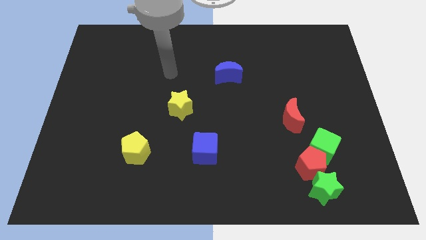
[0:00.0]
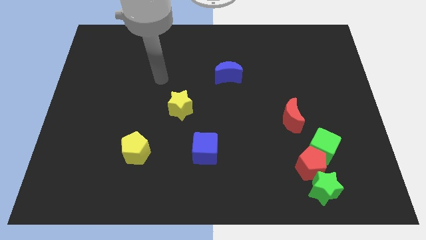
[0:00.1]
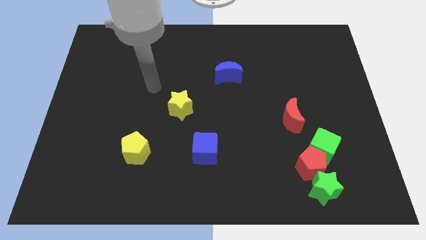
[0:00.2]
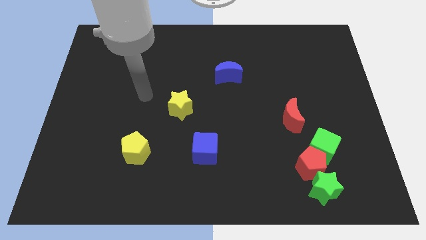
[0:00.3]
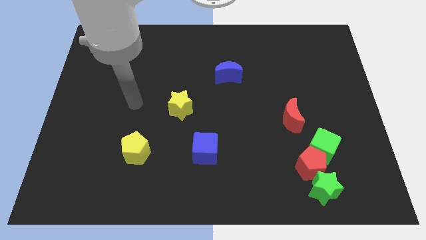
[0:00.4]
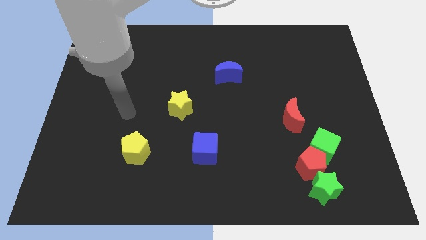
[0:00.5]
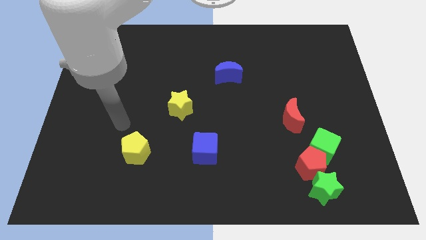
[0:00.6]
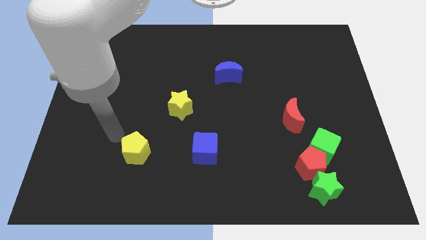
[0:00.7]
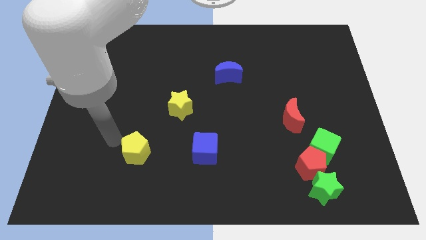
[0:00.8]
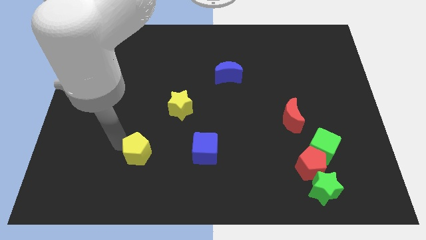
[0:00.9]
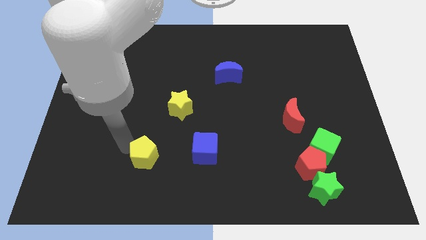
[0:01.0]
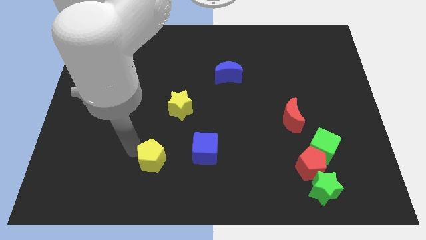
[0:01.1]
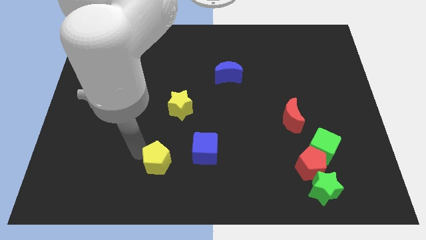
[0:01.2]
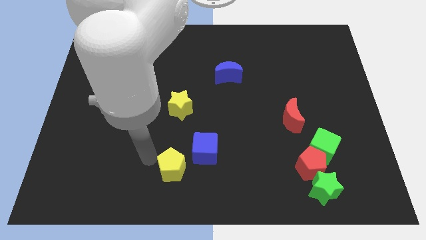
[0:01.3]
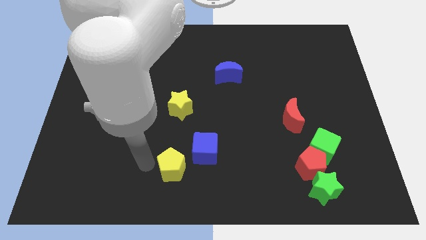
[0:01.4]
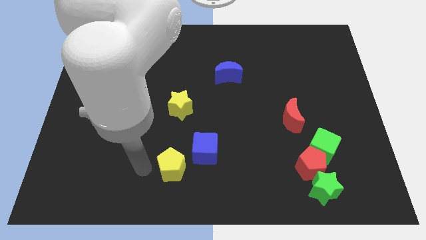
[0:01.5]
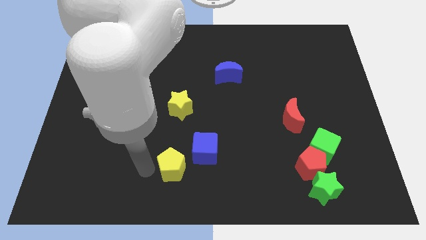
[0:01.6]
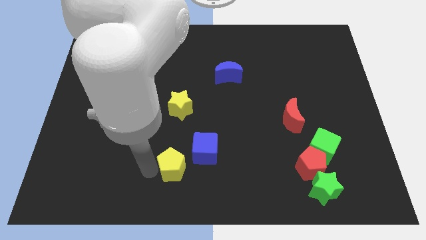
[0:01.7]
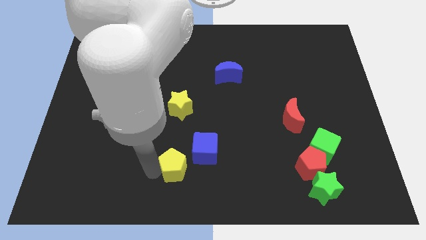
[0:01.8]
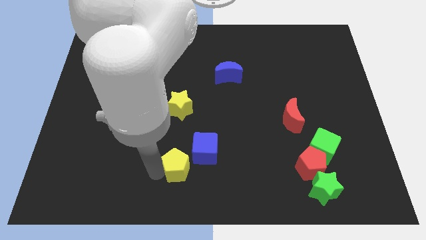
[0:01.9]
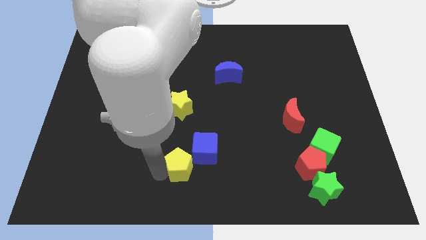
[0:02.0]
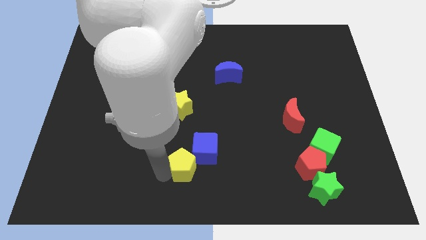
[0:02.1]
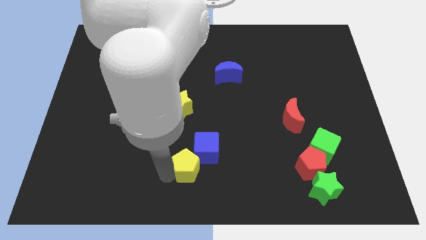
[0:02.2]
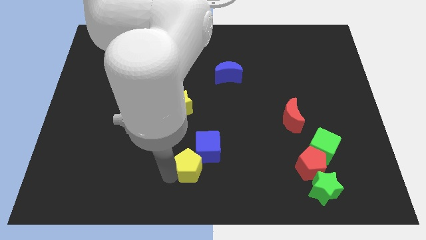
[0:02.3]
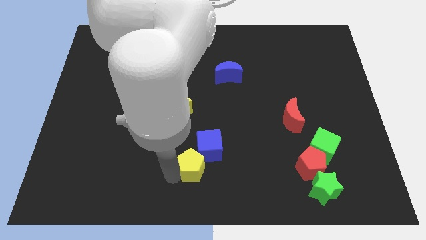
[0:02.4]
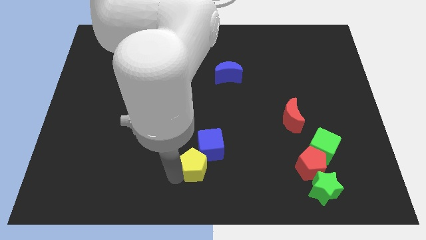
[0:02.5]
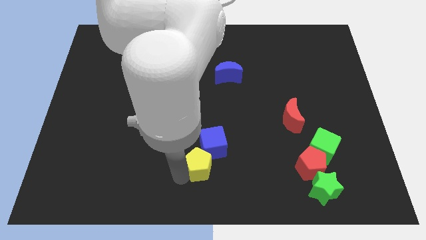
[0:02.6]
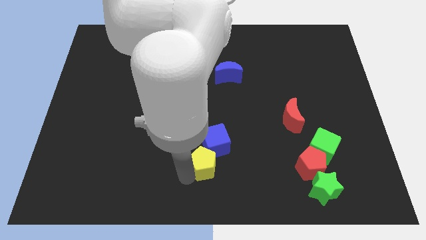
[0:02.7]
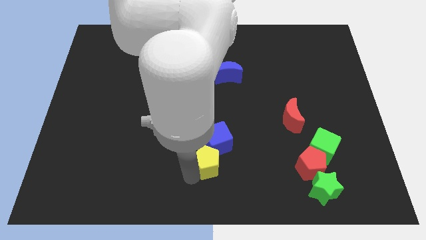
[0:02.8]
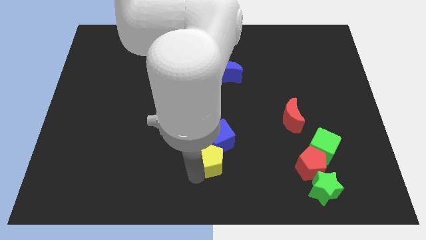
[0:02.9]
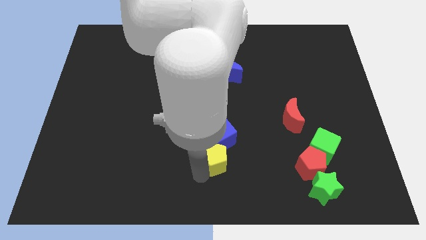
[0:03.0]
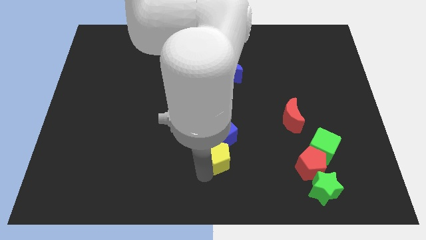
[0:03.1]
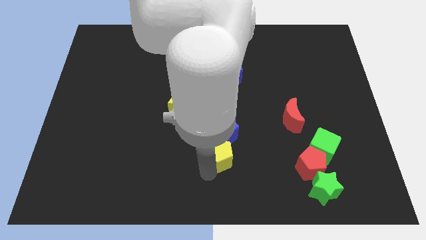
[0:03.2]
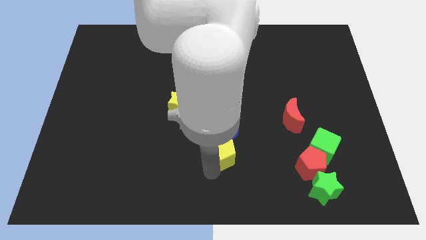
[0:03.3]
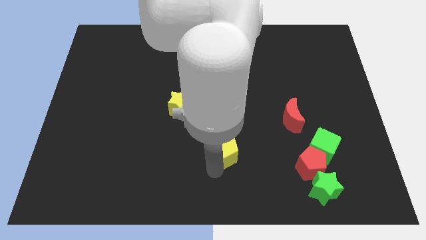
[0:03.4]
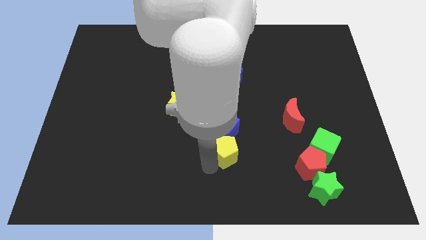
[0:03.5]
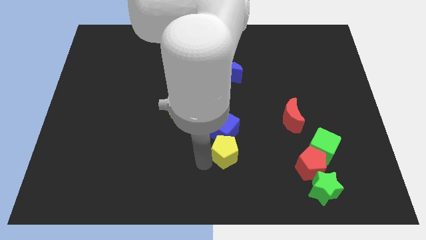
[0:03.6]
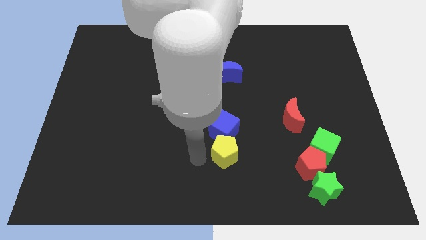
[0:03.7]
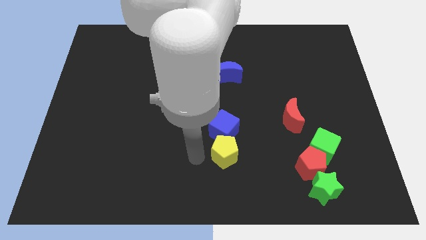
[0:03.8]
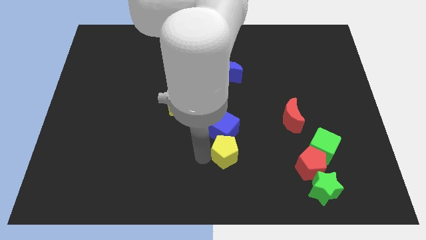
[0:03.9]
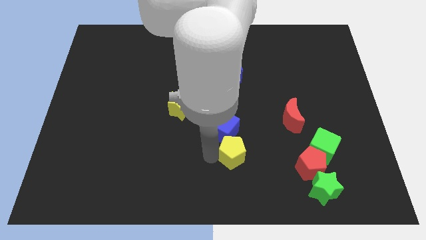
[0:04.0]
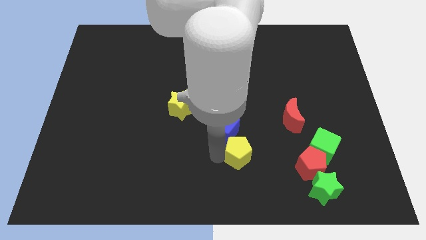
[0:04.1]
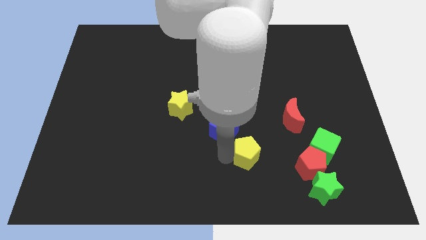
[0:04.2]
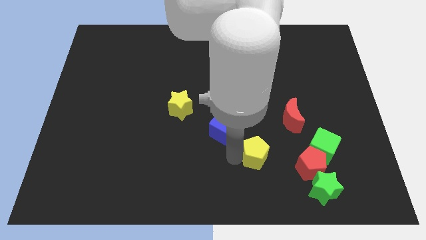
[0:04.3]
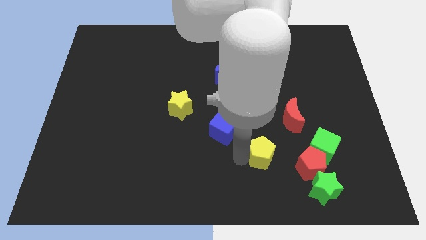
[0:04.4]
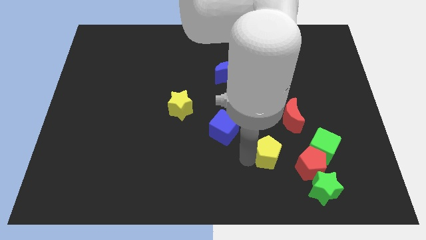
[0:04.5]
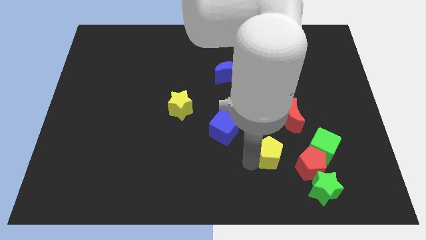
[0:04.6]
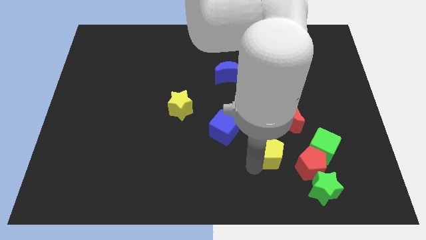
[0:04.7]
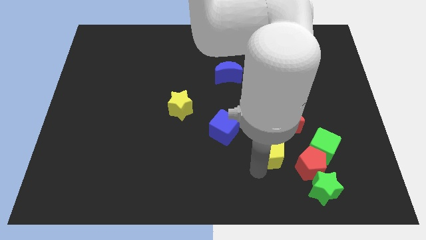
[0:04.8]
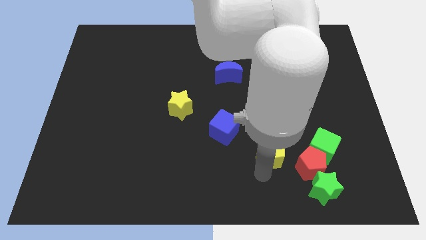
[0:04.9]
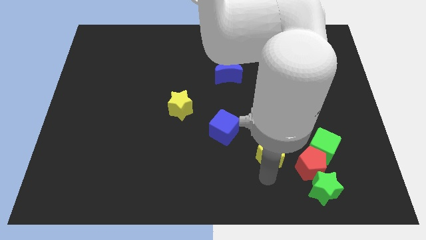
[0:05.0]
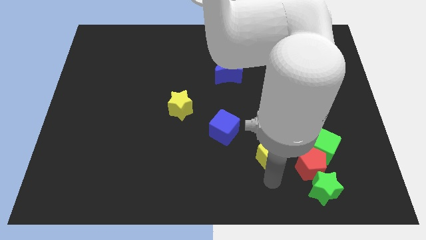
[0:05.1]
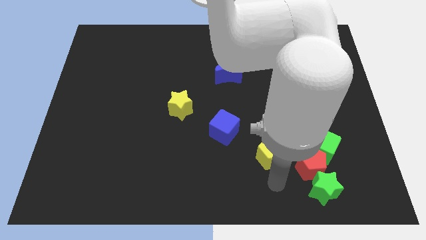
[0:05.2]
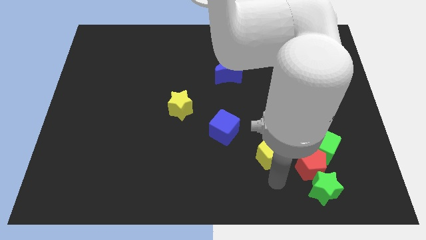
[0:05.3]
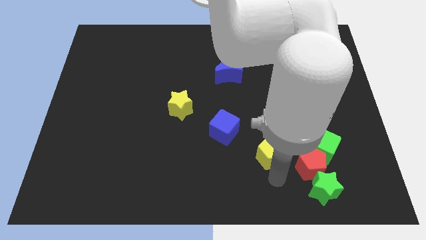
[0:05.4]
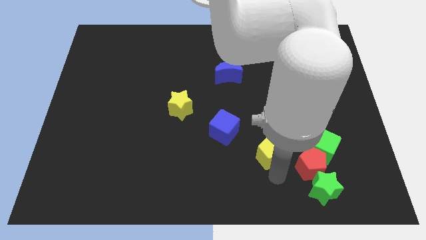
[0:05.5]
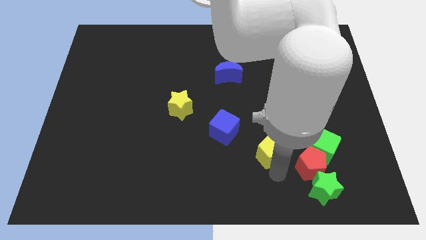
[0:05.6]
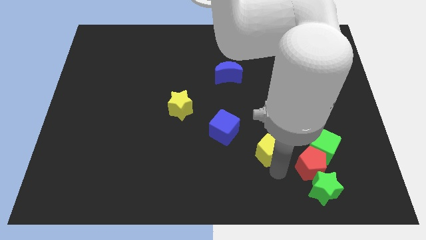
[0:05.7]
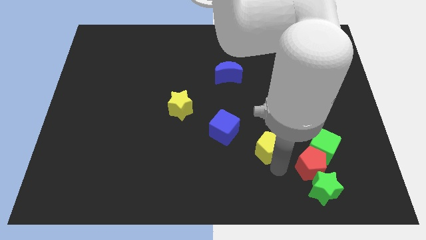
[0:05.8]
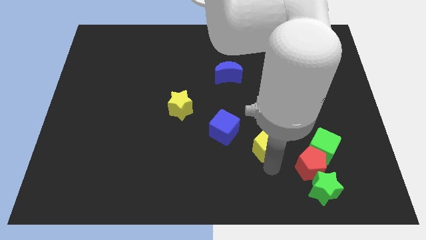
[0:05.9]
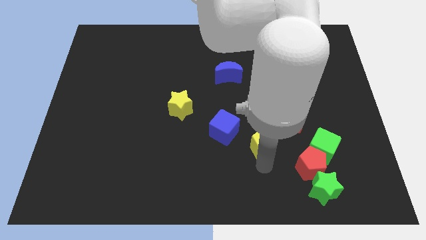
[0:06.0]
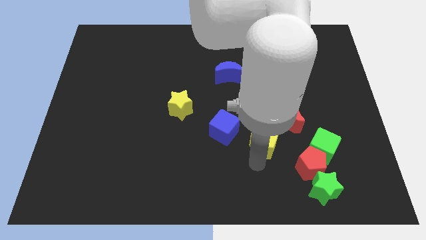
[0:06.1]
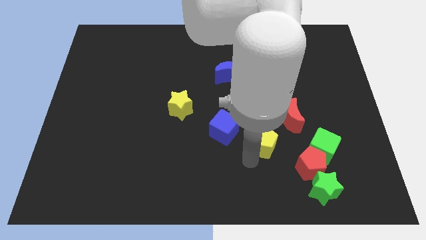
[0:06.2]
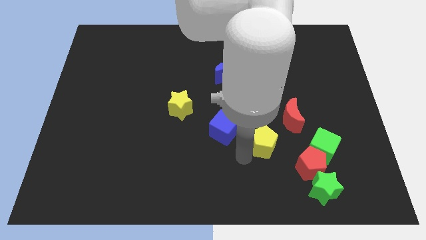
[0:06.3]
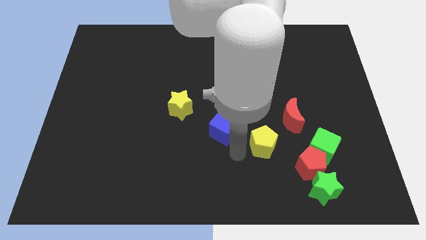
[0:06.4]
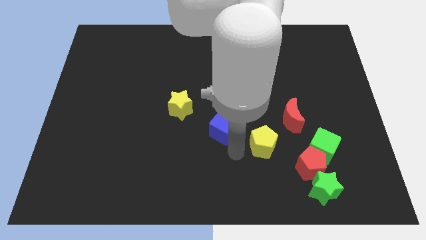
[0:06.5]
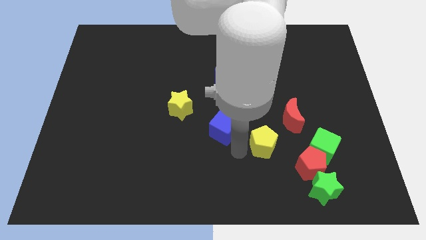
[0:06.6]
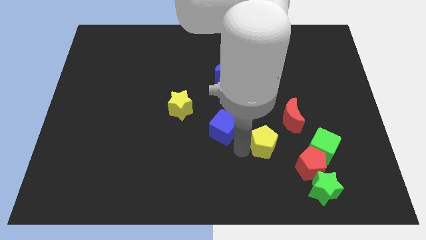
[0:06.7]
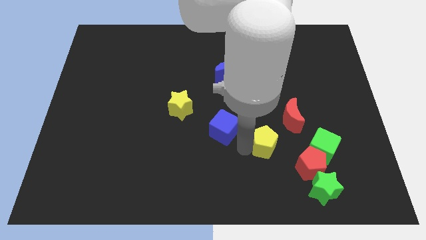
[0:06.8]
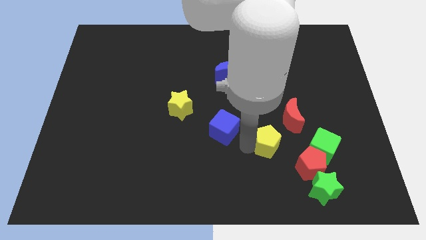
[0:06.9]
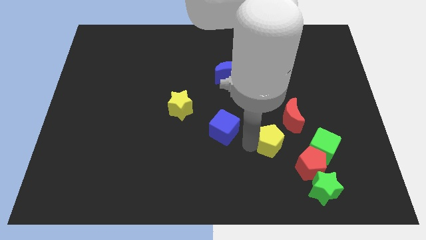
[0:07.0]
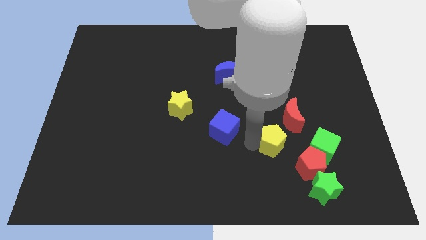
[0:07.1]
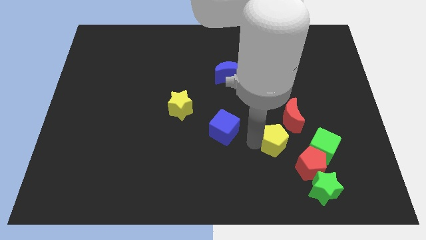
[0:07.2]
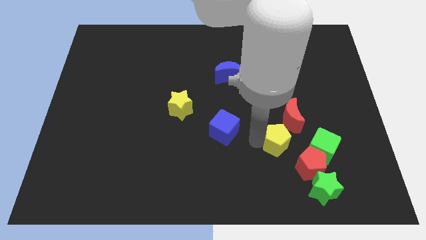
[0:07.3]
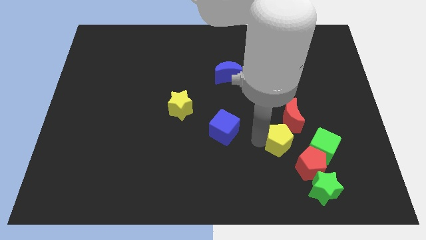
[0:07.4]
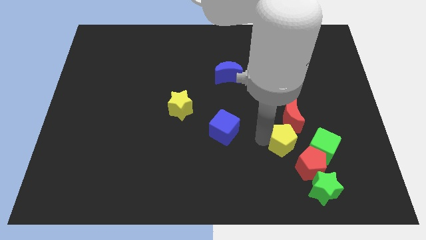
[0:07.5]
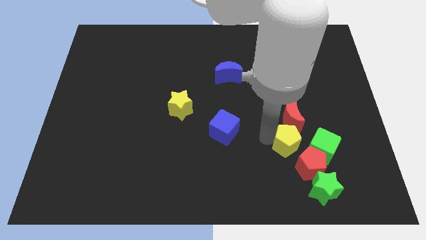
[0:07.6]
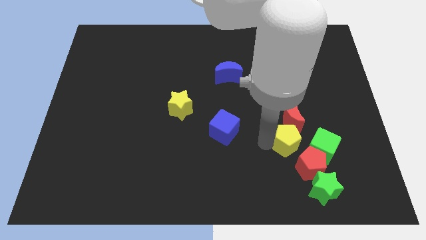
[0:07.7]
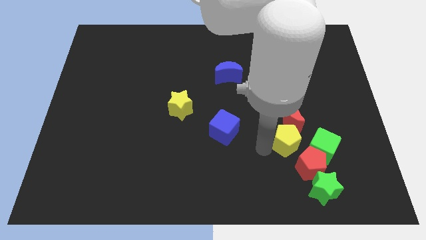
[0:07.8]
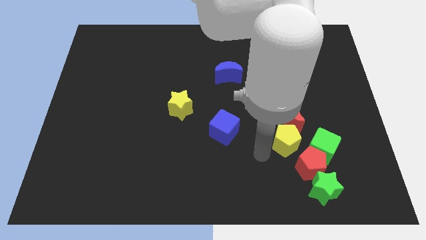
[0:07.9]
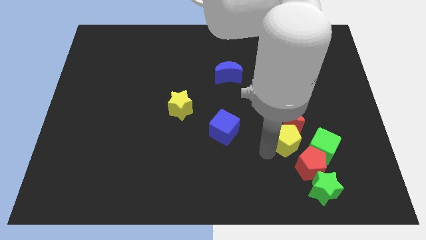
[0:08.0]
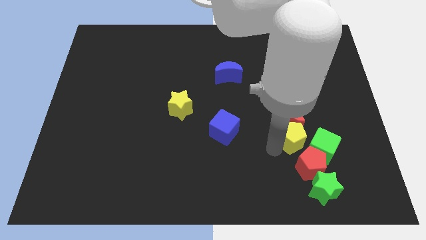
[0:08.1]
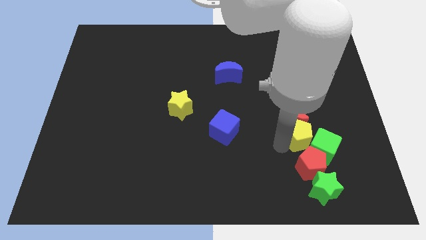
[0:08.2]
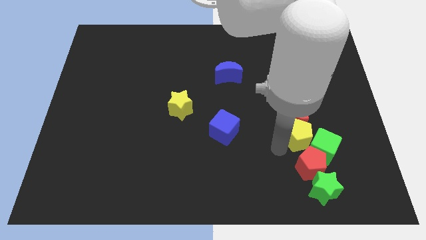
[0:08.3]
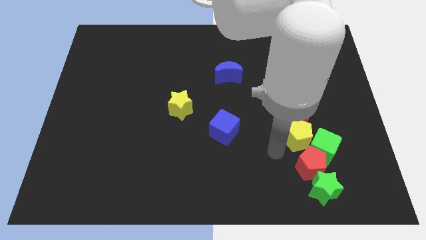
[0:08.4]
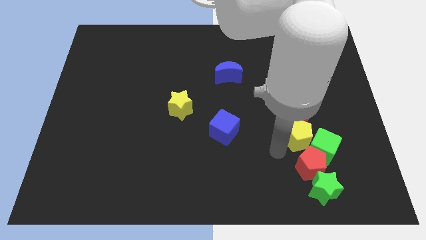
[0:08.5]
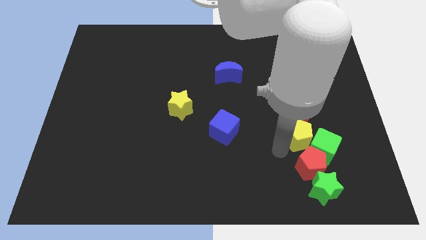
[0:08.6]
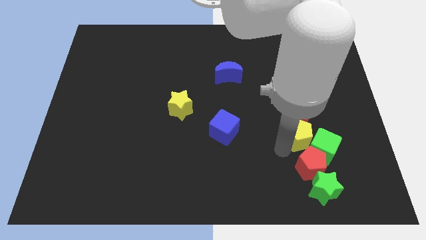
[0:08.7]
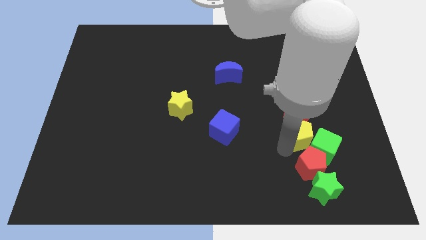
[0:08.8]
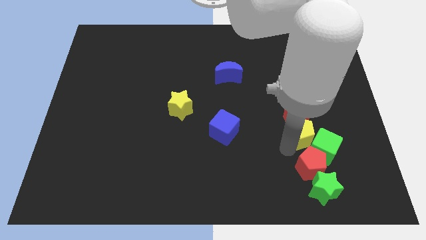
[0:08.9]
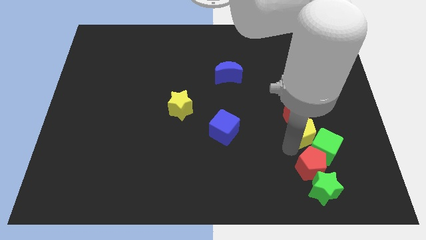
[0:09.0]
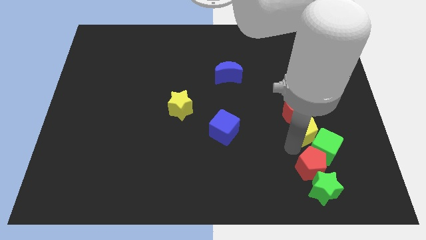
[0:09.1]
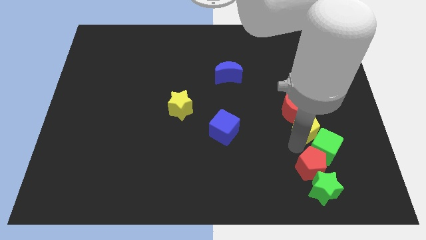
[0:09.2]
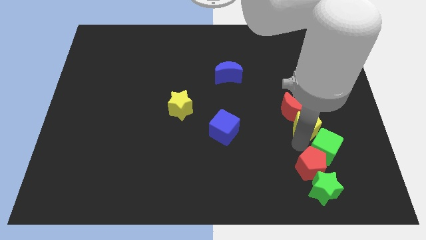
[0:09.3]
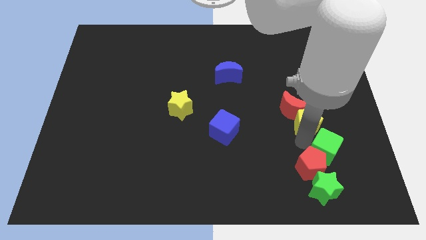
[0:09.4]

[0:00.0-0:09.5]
move the yellow pentagon right of the red moon
